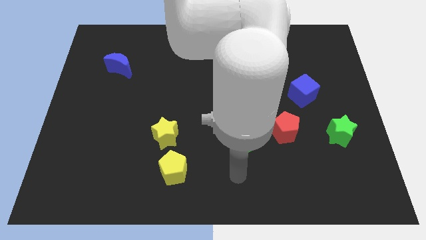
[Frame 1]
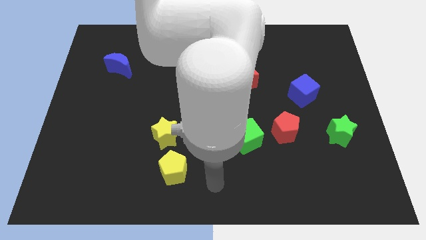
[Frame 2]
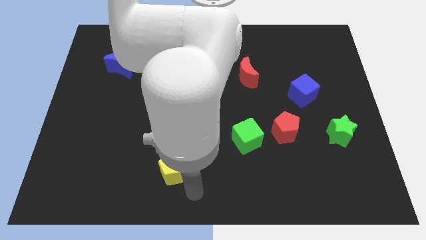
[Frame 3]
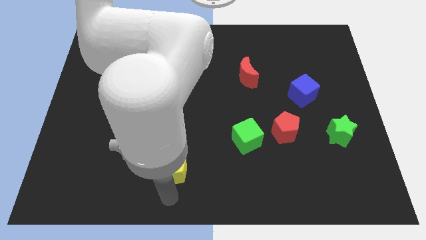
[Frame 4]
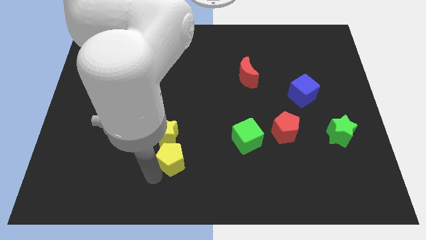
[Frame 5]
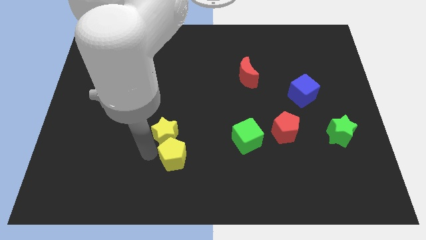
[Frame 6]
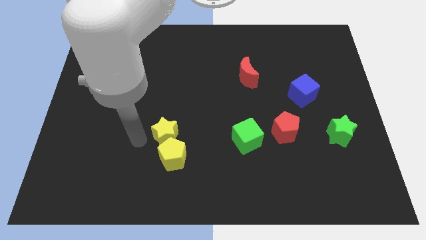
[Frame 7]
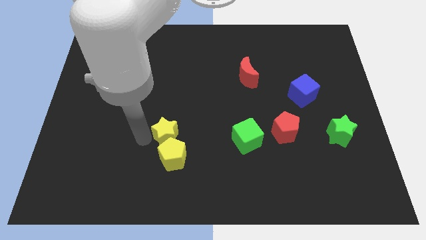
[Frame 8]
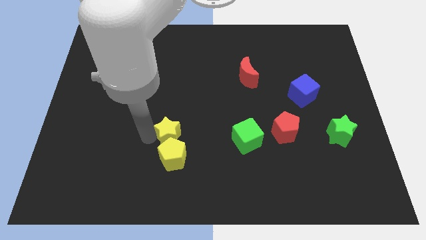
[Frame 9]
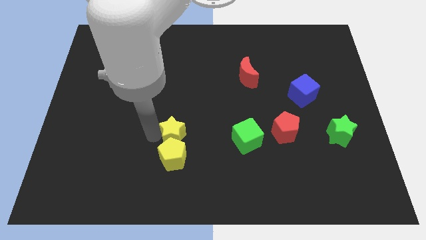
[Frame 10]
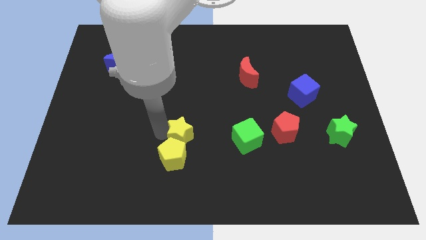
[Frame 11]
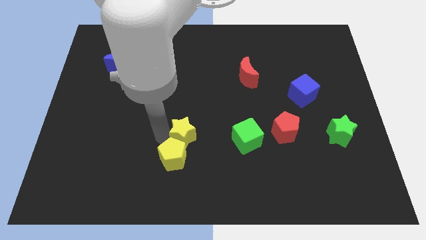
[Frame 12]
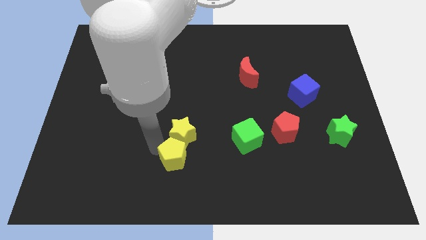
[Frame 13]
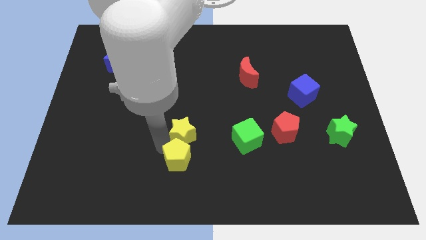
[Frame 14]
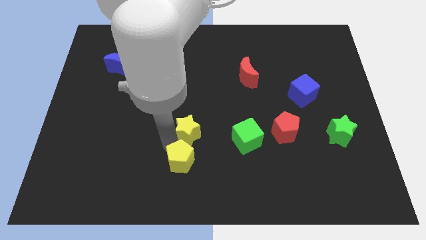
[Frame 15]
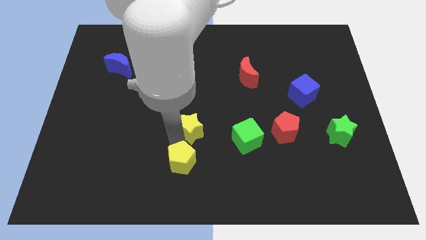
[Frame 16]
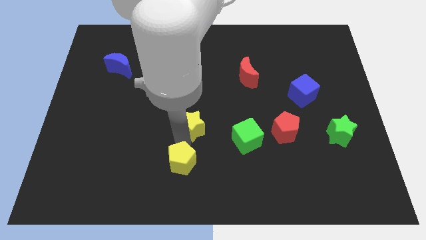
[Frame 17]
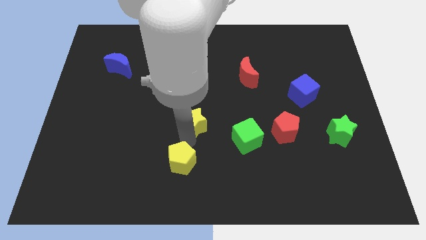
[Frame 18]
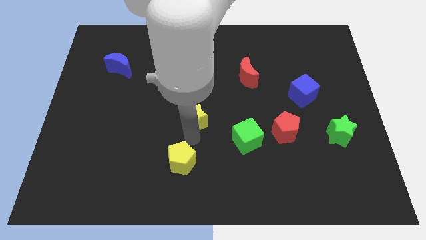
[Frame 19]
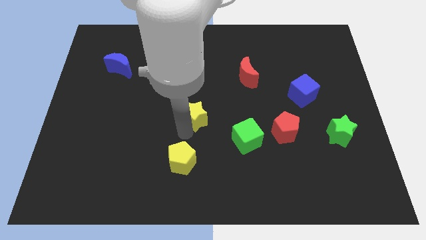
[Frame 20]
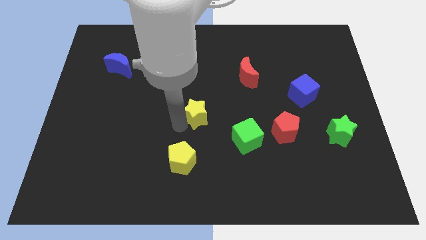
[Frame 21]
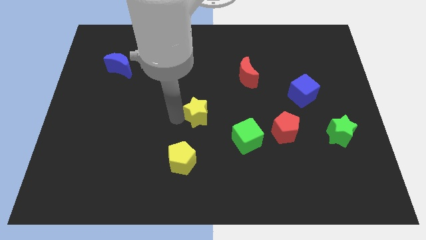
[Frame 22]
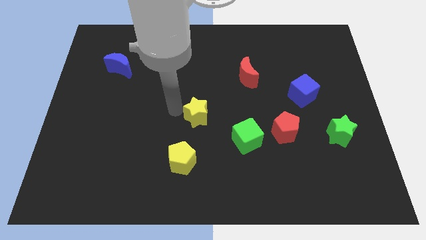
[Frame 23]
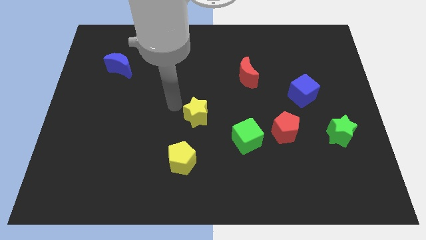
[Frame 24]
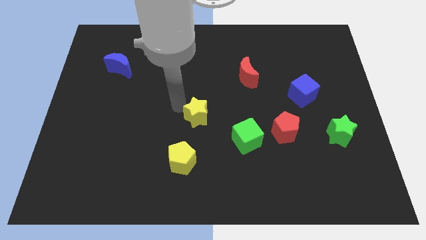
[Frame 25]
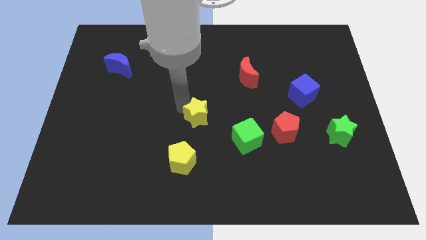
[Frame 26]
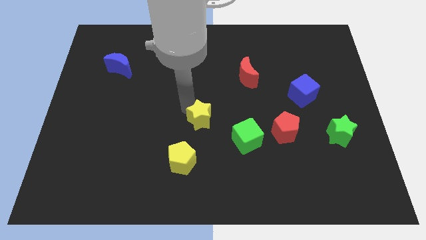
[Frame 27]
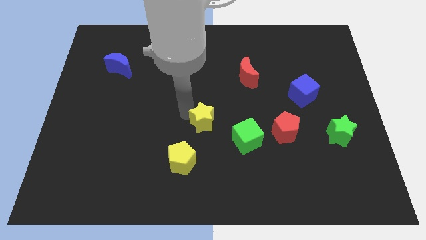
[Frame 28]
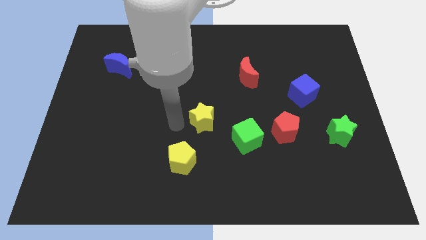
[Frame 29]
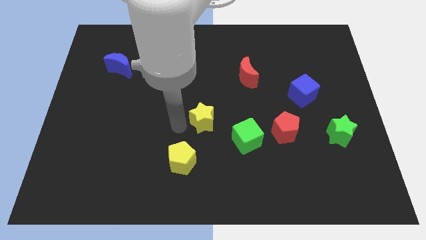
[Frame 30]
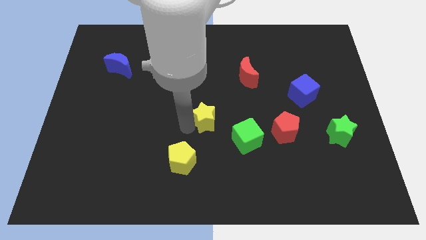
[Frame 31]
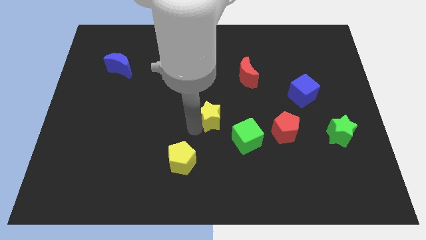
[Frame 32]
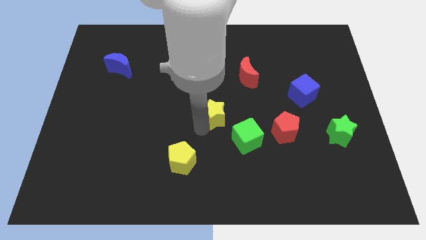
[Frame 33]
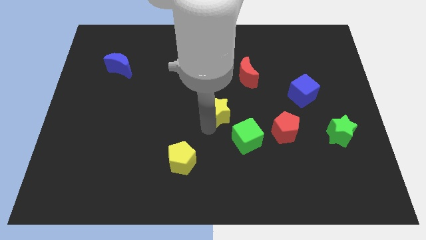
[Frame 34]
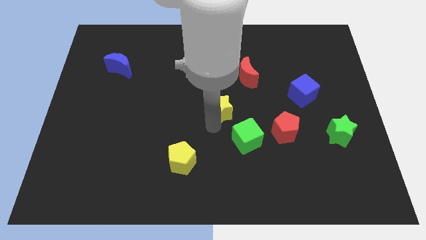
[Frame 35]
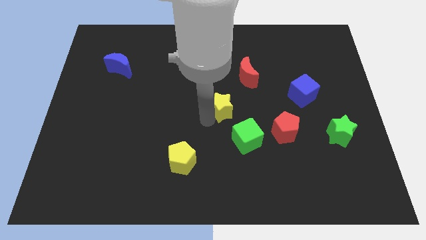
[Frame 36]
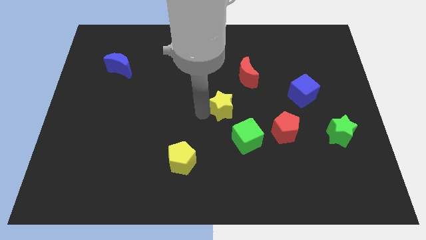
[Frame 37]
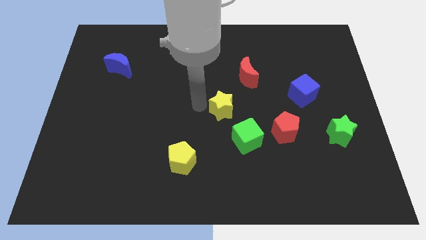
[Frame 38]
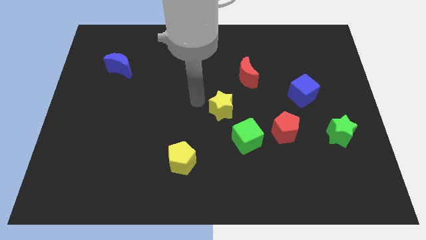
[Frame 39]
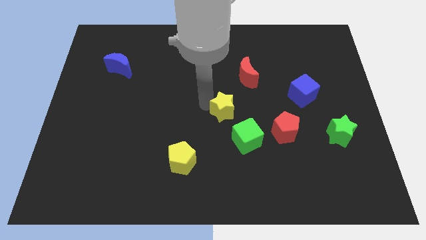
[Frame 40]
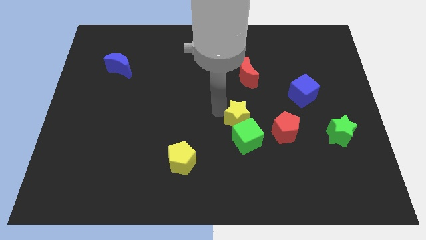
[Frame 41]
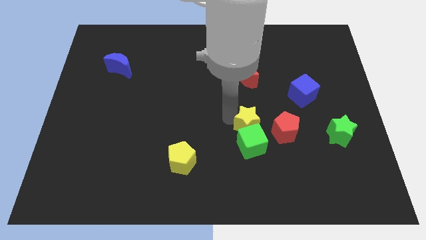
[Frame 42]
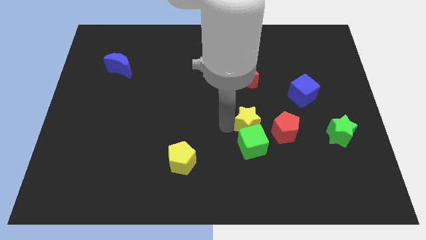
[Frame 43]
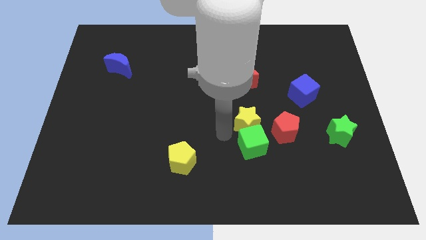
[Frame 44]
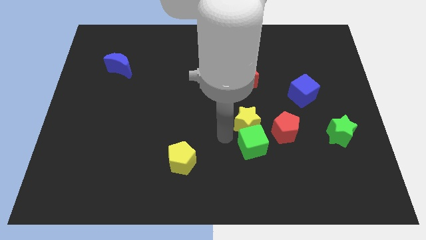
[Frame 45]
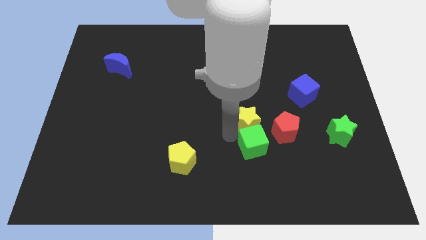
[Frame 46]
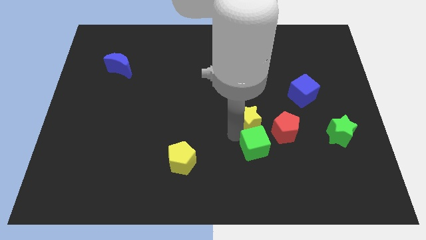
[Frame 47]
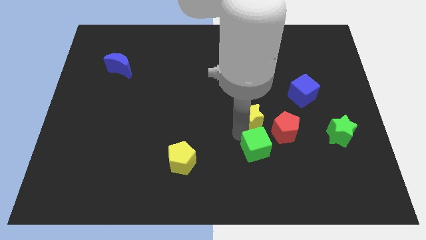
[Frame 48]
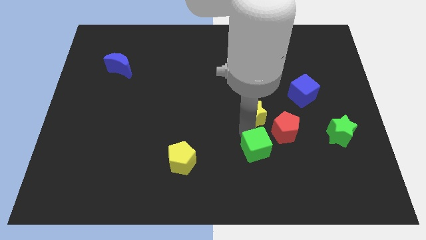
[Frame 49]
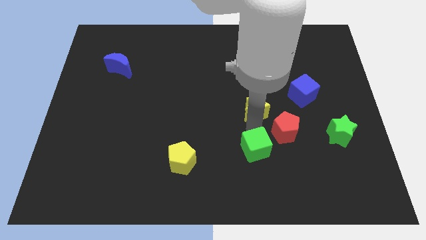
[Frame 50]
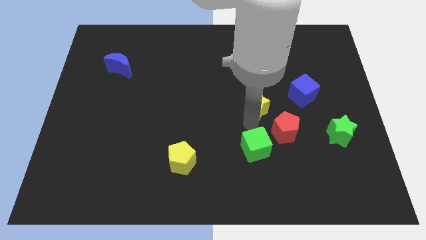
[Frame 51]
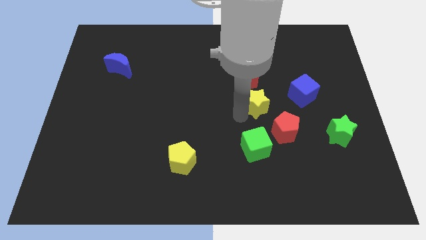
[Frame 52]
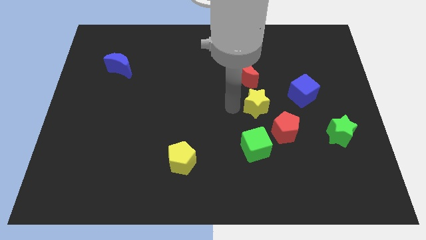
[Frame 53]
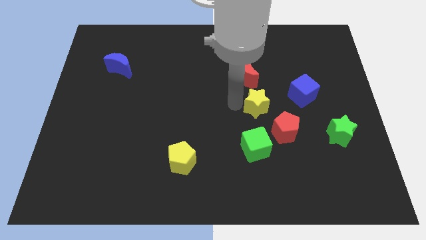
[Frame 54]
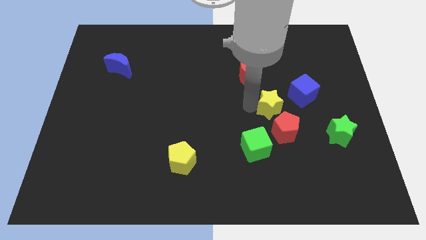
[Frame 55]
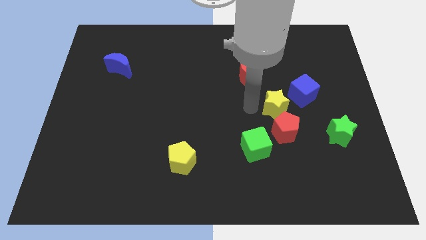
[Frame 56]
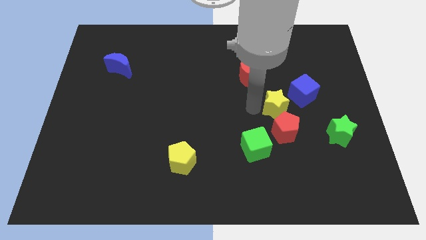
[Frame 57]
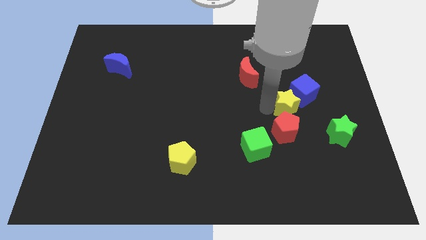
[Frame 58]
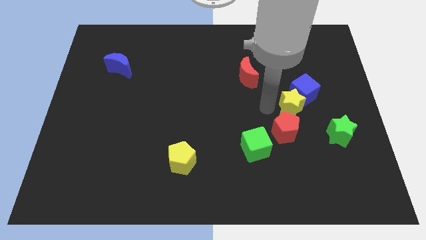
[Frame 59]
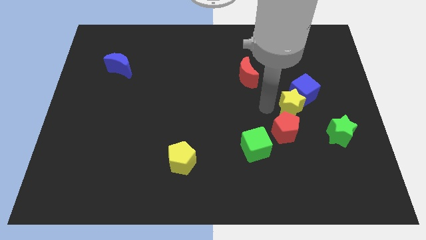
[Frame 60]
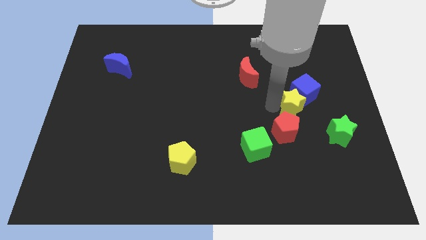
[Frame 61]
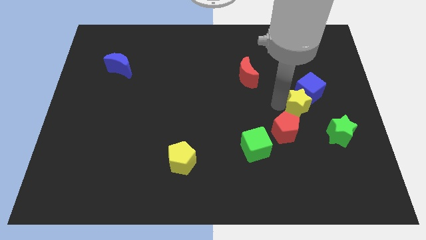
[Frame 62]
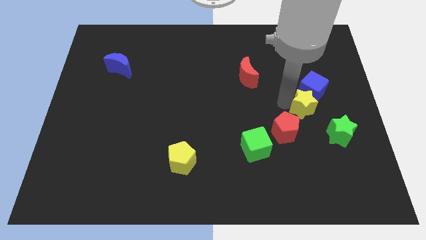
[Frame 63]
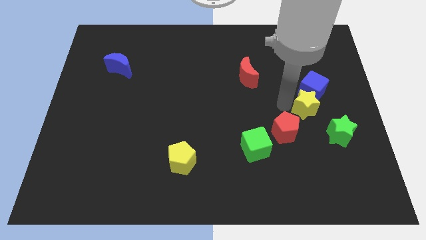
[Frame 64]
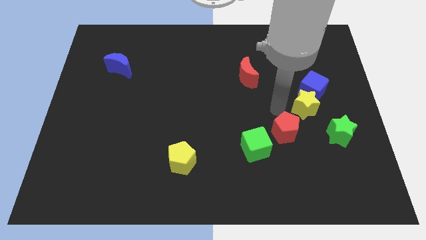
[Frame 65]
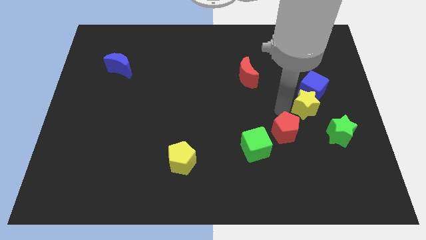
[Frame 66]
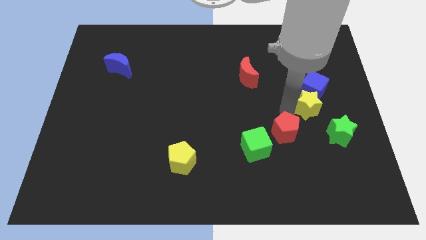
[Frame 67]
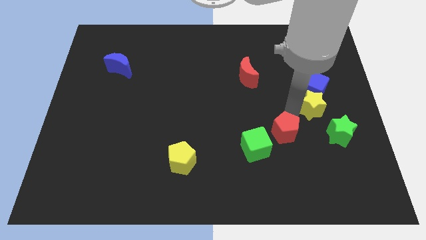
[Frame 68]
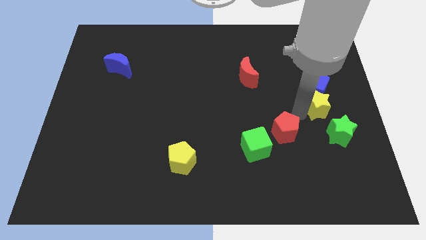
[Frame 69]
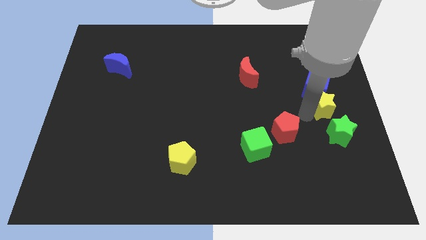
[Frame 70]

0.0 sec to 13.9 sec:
slide the yellow star to the right side of the board
